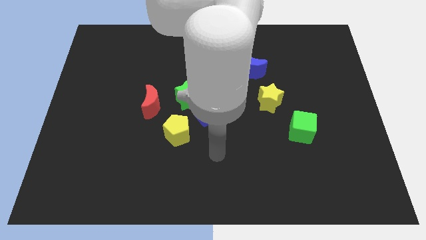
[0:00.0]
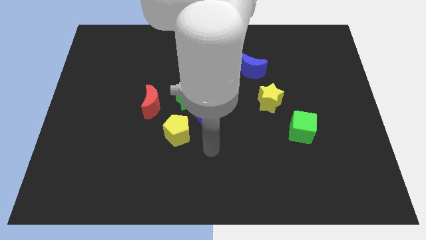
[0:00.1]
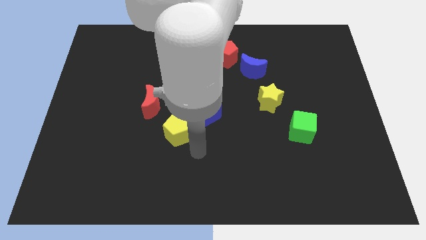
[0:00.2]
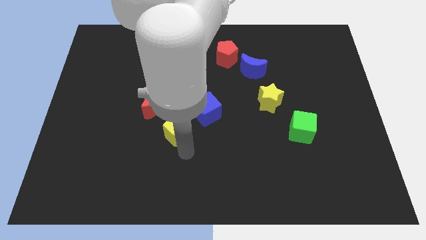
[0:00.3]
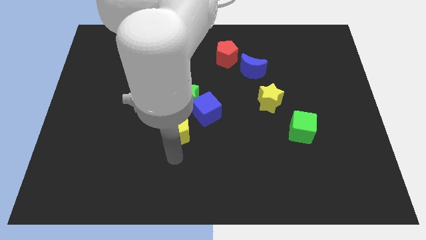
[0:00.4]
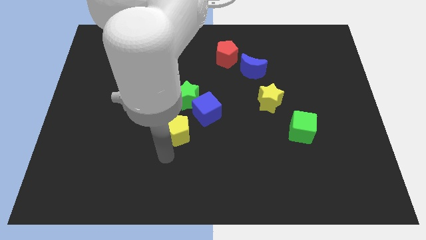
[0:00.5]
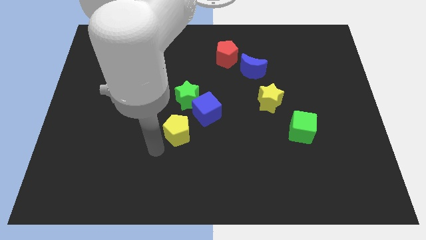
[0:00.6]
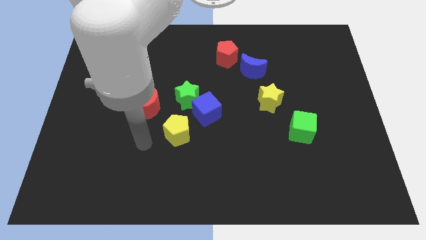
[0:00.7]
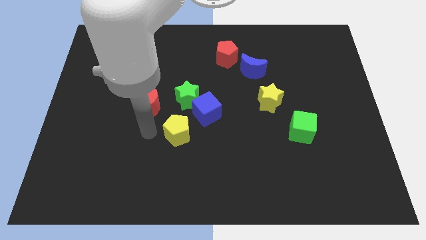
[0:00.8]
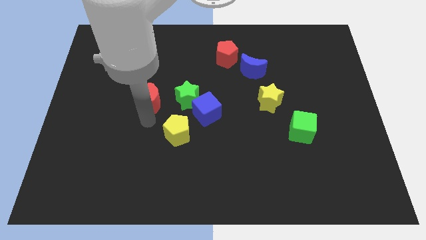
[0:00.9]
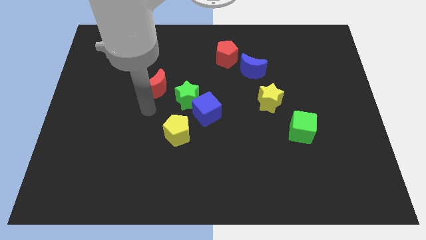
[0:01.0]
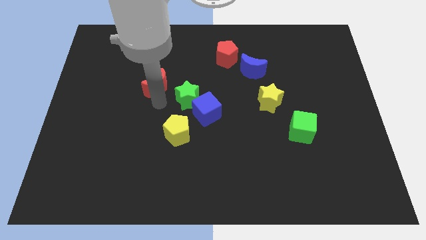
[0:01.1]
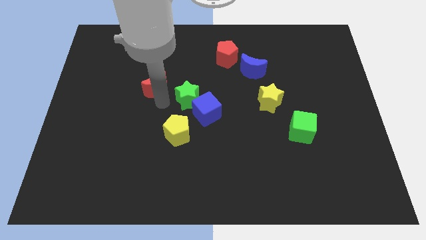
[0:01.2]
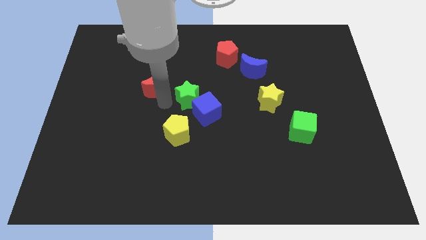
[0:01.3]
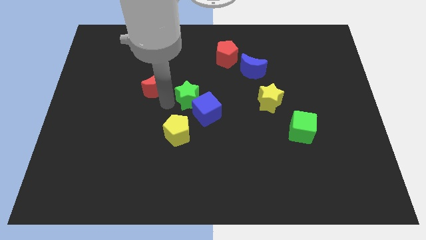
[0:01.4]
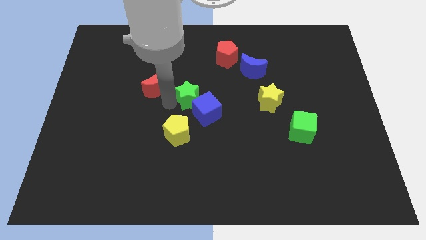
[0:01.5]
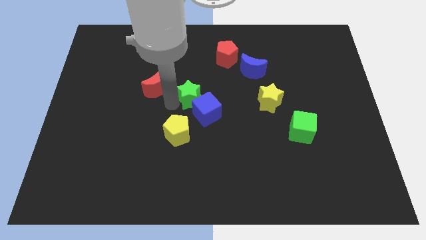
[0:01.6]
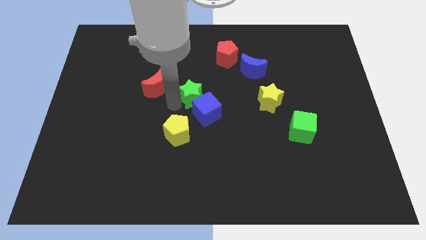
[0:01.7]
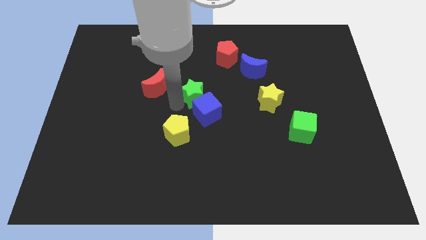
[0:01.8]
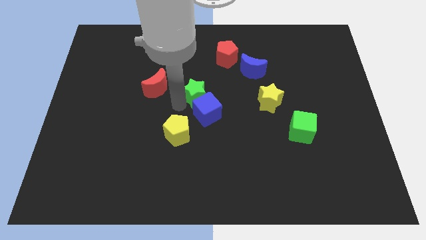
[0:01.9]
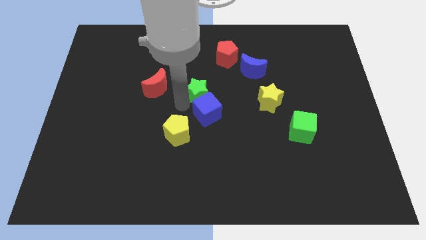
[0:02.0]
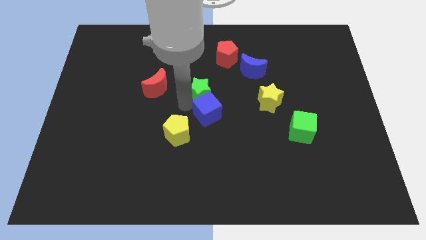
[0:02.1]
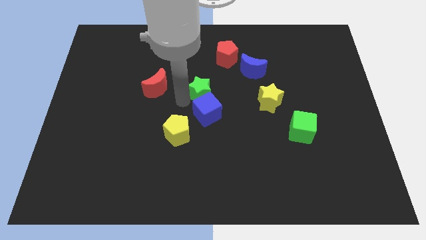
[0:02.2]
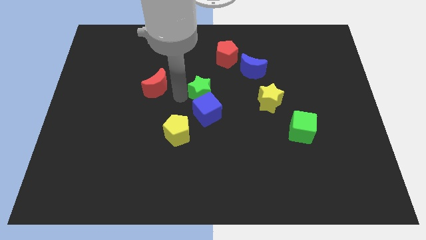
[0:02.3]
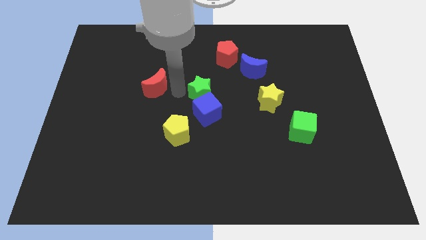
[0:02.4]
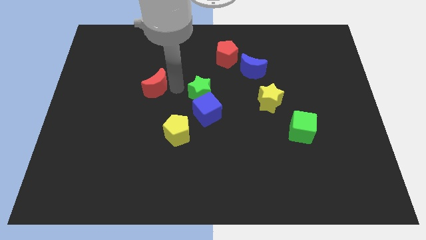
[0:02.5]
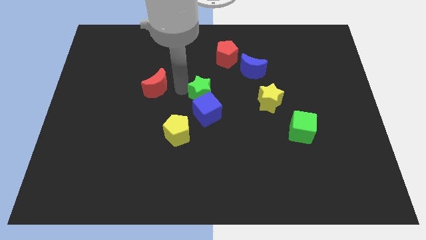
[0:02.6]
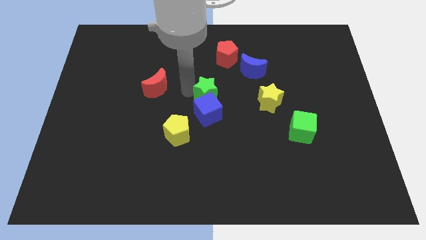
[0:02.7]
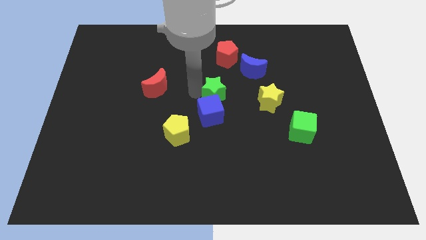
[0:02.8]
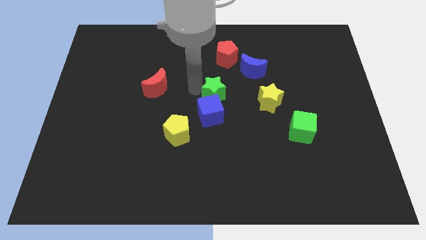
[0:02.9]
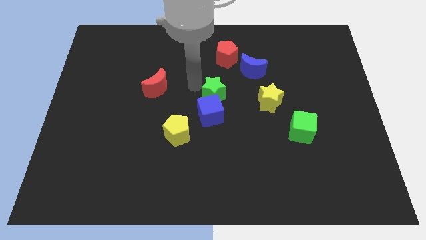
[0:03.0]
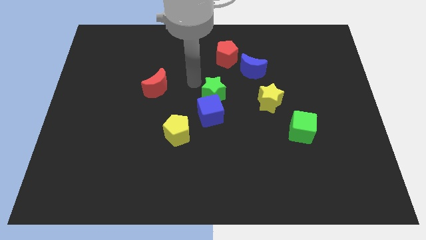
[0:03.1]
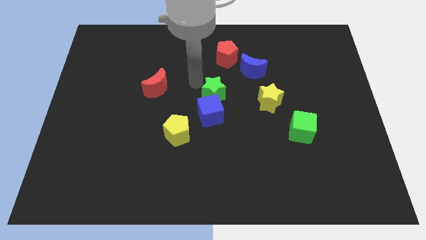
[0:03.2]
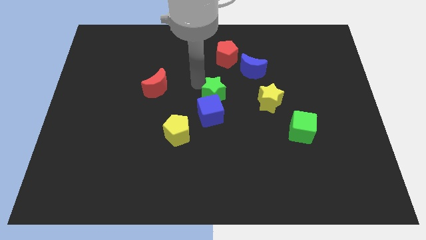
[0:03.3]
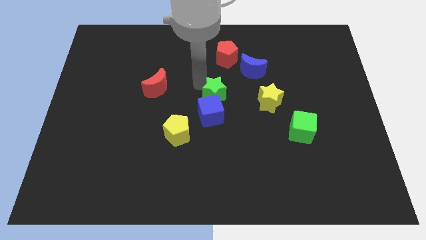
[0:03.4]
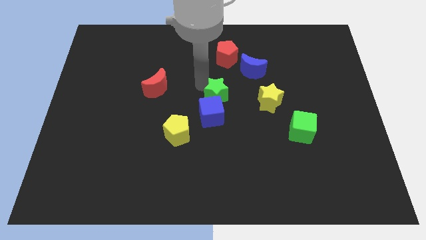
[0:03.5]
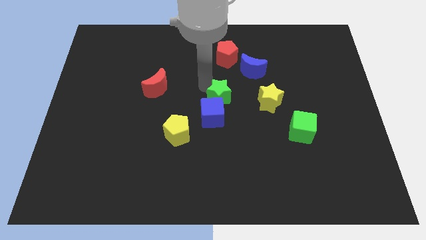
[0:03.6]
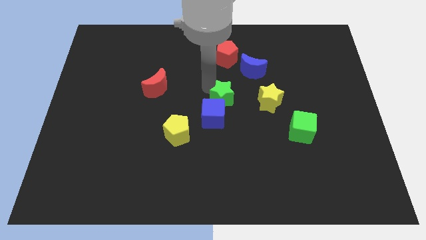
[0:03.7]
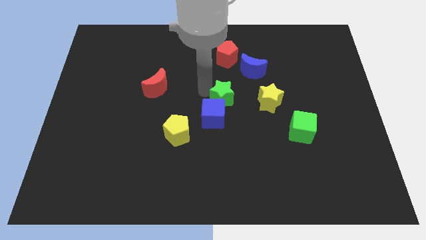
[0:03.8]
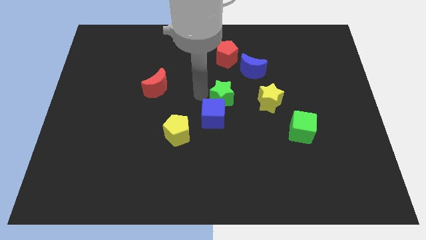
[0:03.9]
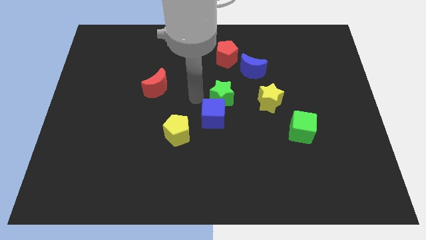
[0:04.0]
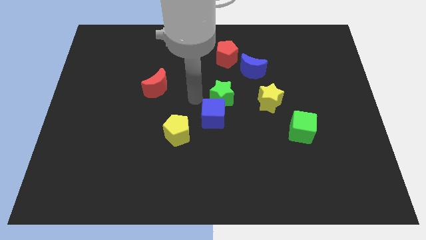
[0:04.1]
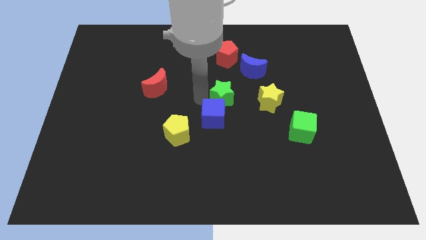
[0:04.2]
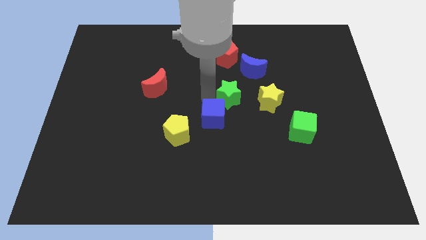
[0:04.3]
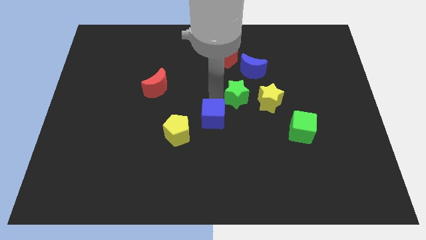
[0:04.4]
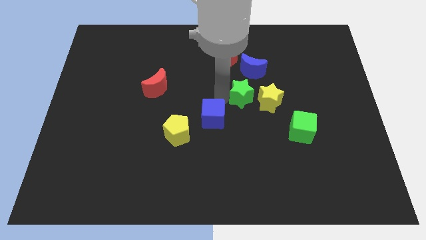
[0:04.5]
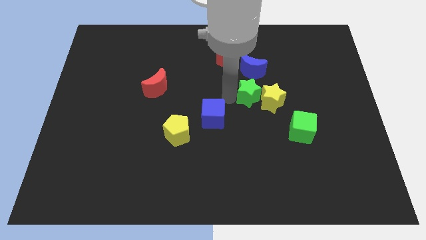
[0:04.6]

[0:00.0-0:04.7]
slide the green star next to the yellow star

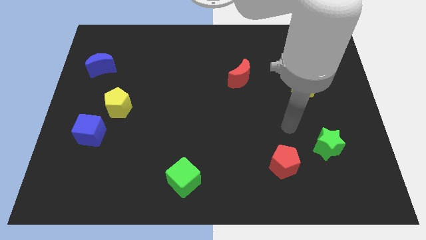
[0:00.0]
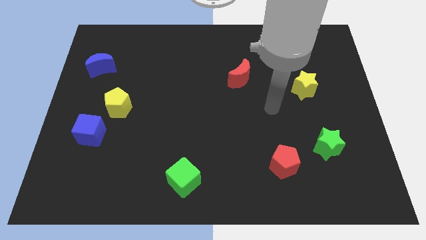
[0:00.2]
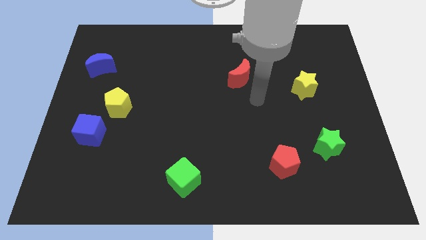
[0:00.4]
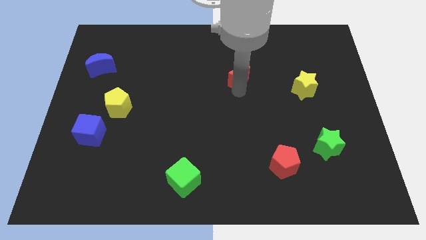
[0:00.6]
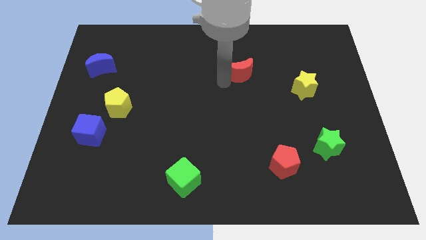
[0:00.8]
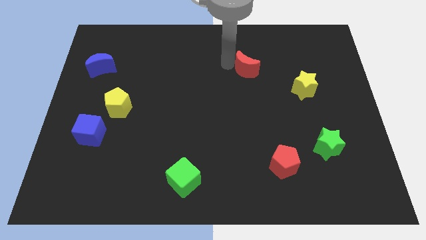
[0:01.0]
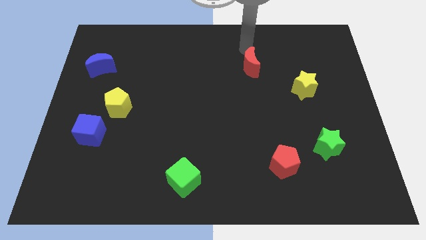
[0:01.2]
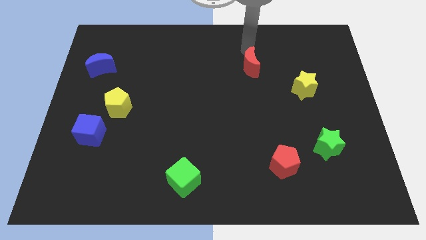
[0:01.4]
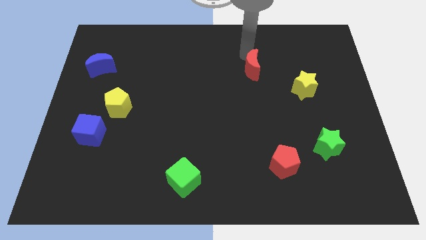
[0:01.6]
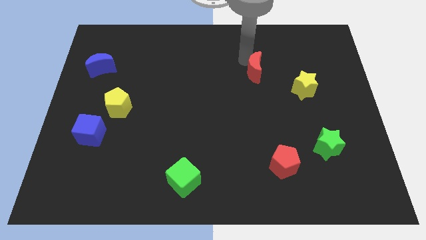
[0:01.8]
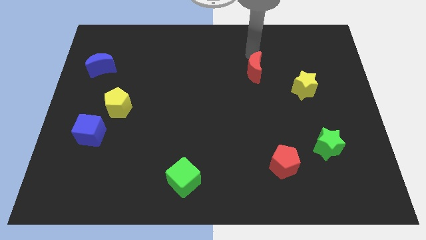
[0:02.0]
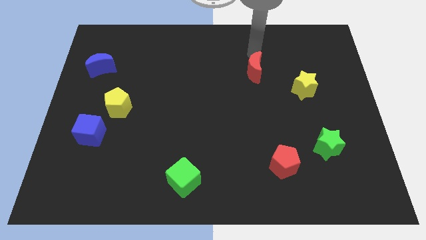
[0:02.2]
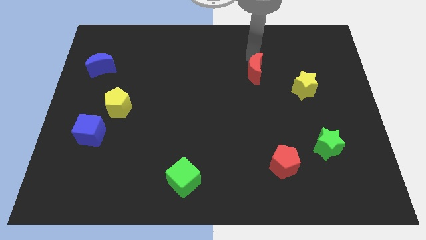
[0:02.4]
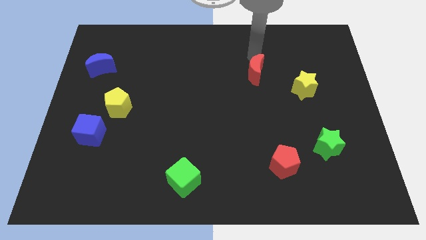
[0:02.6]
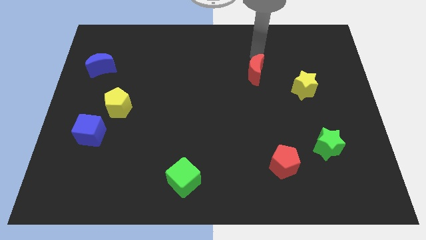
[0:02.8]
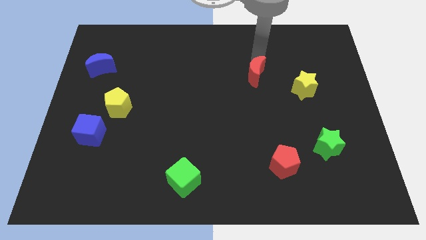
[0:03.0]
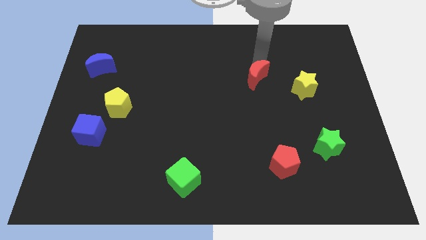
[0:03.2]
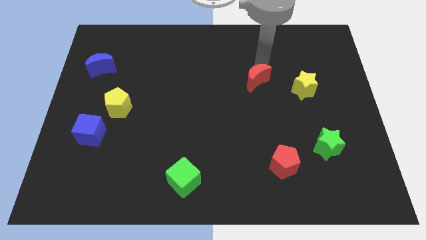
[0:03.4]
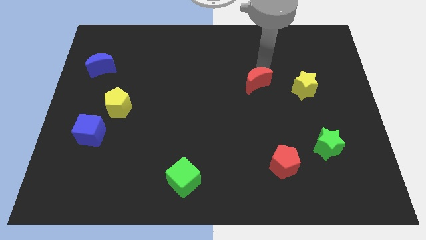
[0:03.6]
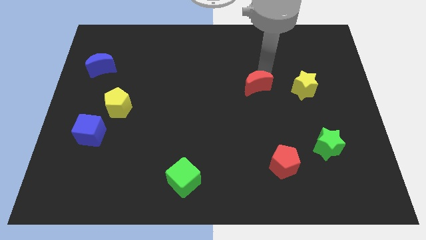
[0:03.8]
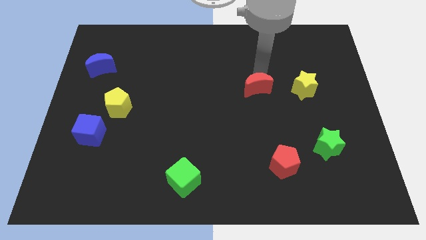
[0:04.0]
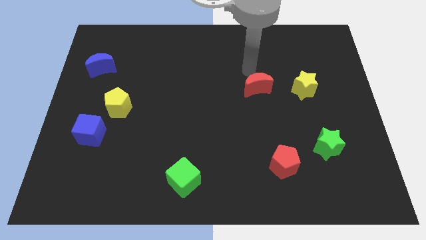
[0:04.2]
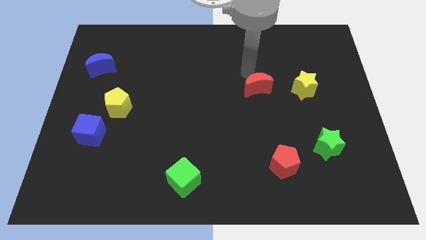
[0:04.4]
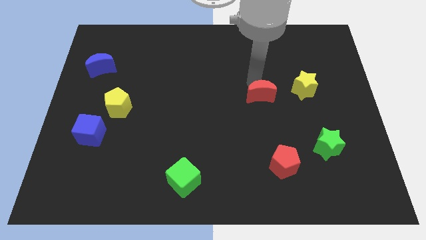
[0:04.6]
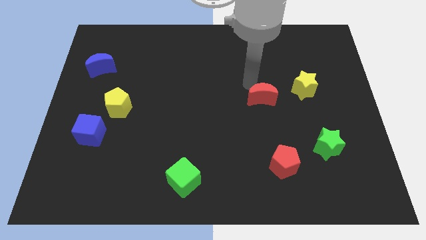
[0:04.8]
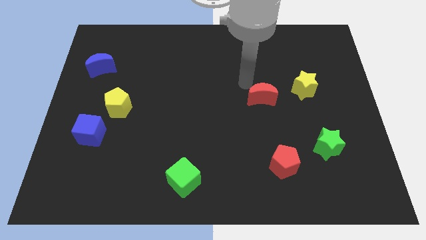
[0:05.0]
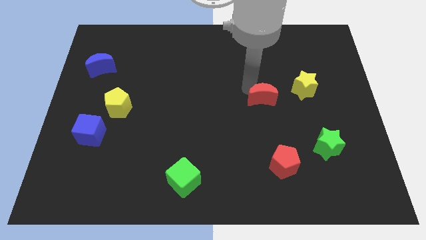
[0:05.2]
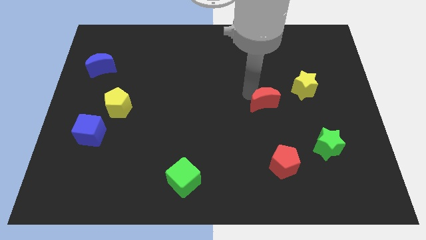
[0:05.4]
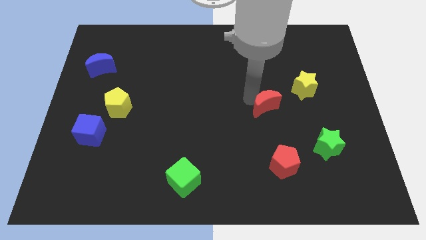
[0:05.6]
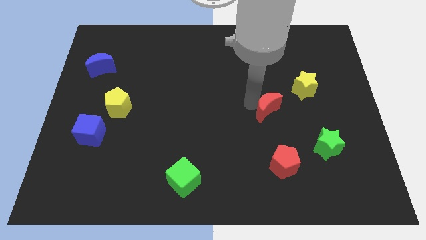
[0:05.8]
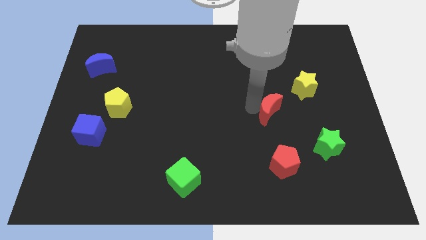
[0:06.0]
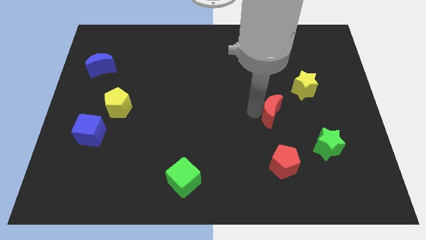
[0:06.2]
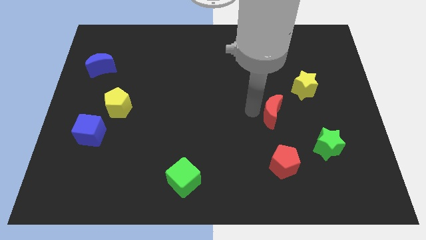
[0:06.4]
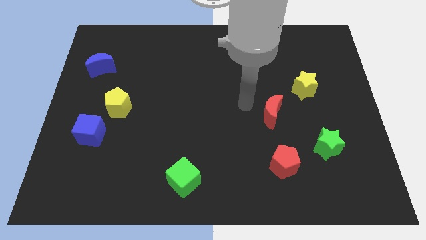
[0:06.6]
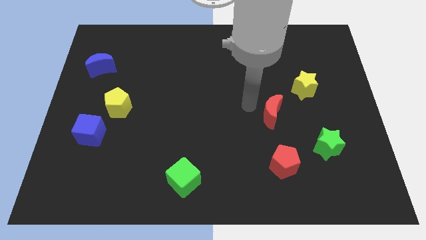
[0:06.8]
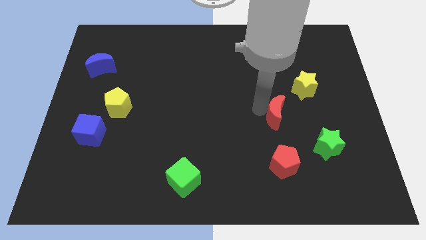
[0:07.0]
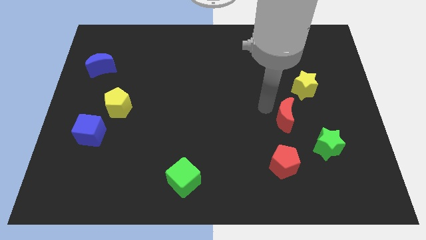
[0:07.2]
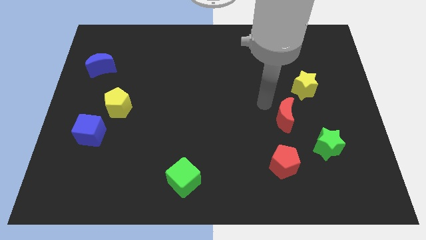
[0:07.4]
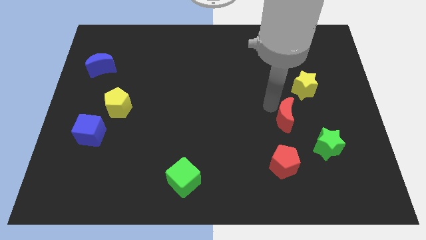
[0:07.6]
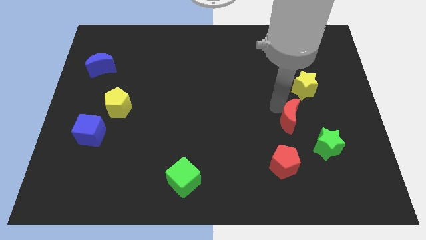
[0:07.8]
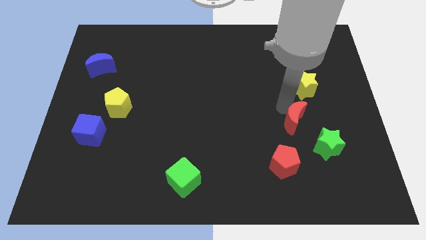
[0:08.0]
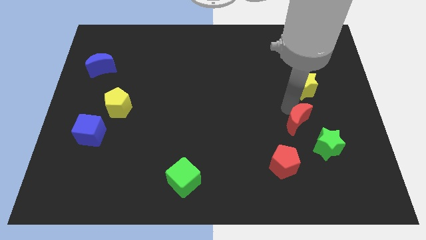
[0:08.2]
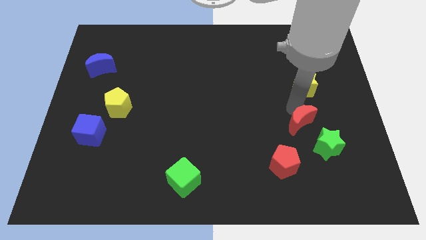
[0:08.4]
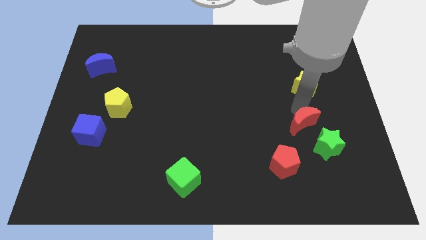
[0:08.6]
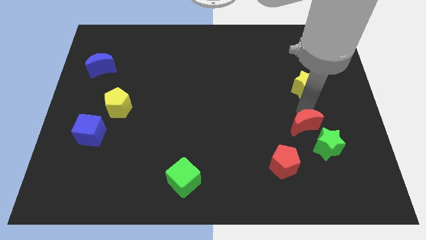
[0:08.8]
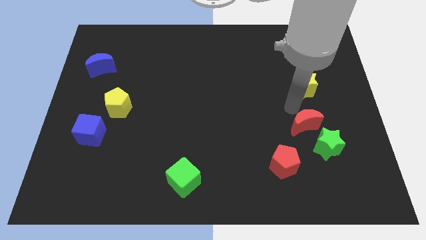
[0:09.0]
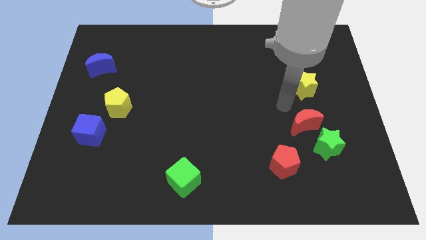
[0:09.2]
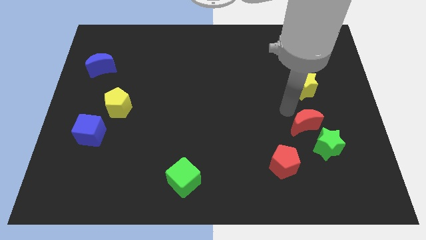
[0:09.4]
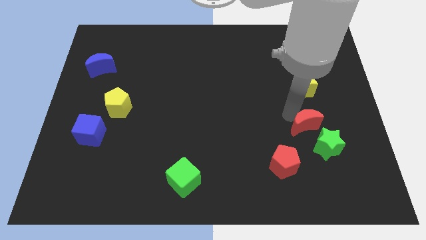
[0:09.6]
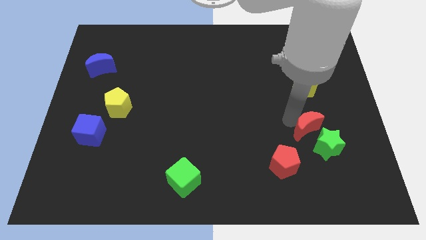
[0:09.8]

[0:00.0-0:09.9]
slide the red moon towards the green star
